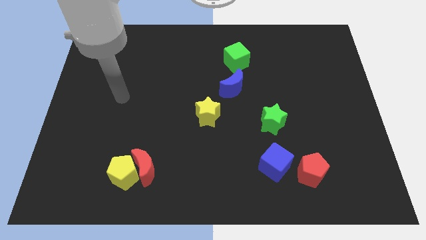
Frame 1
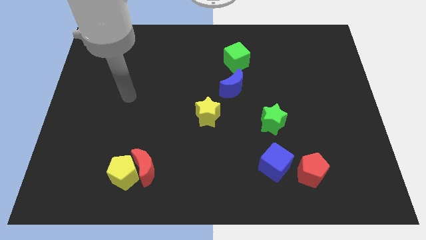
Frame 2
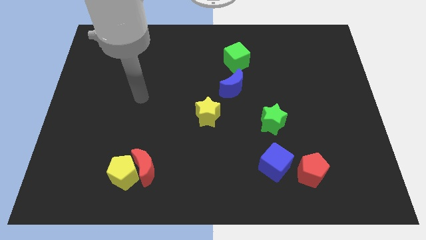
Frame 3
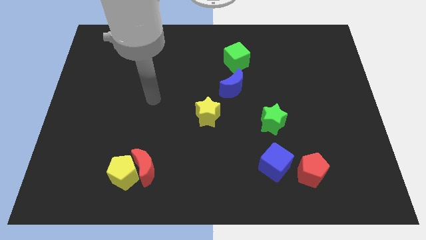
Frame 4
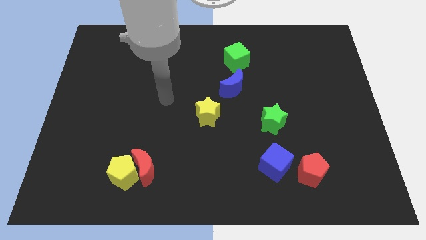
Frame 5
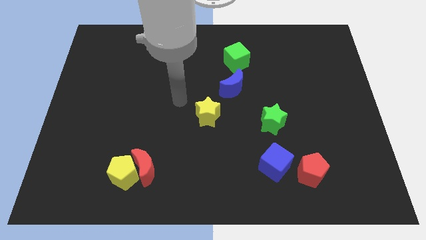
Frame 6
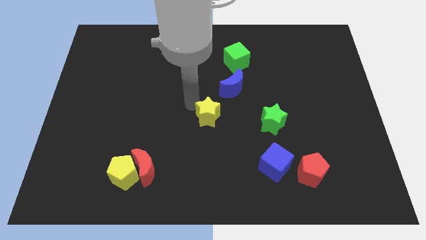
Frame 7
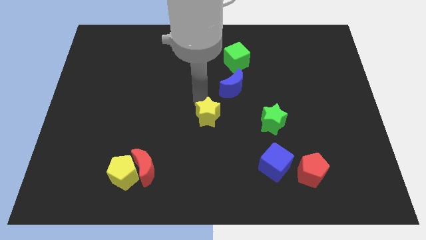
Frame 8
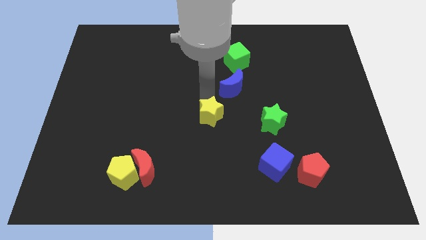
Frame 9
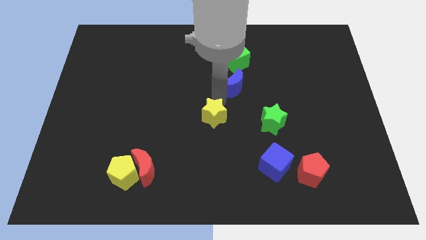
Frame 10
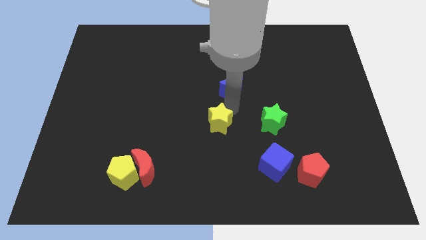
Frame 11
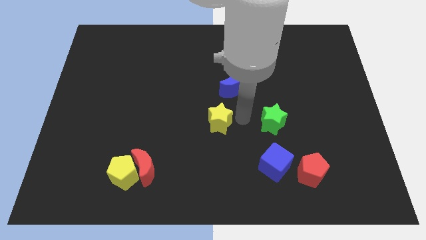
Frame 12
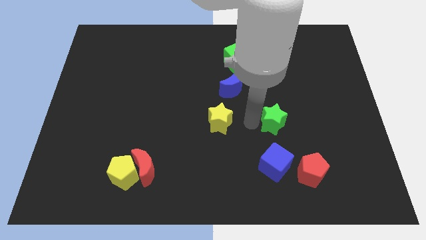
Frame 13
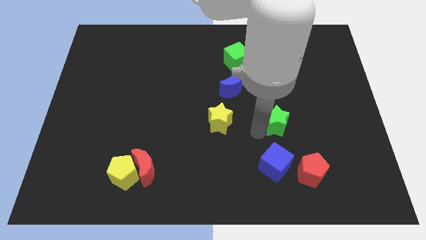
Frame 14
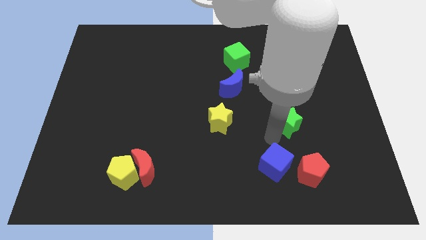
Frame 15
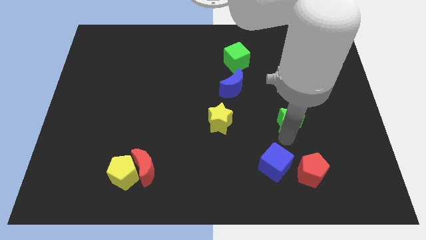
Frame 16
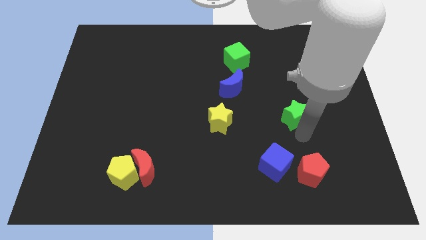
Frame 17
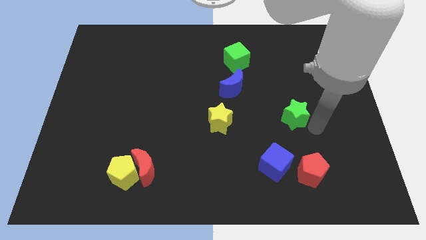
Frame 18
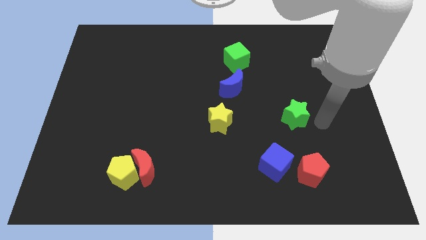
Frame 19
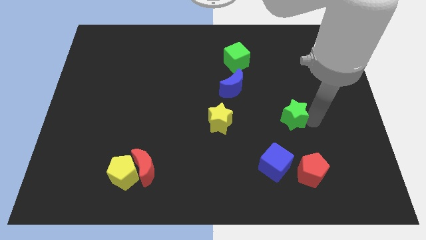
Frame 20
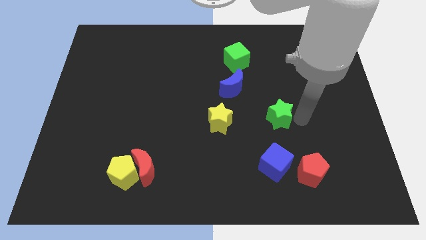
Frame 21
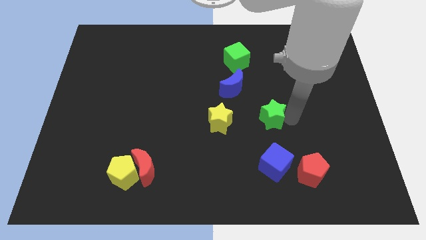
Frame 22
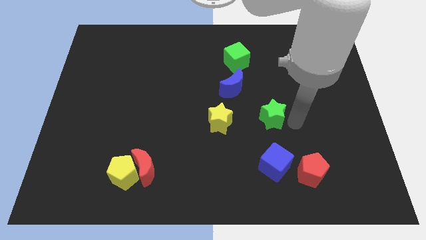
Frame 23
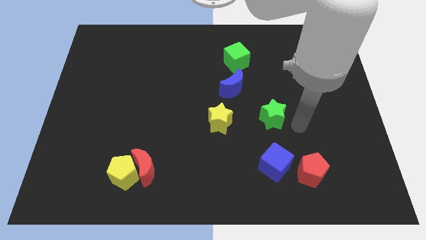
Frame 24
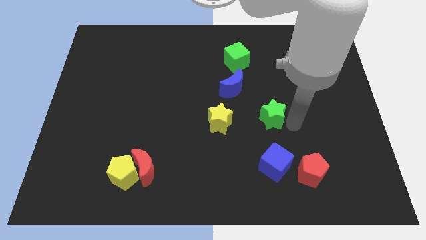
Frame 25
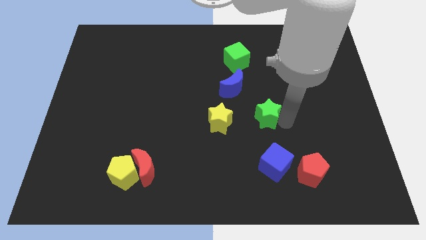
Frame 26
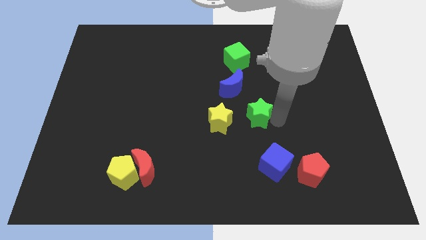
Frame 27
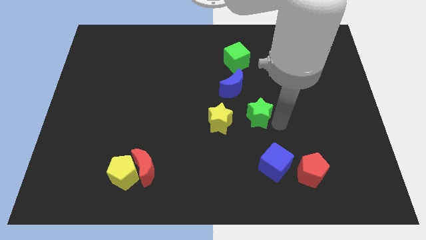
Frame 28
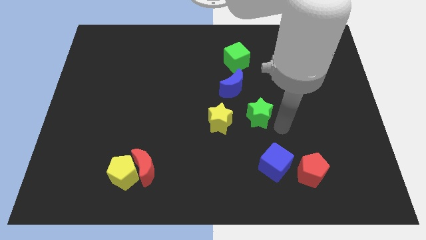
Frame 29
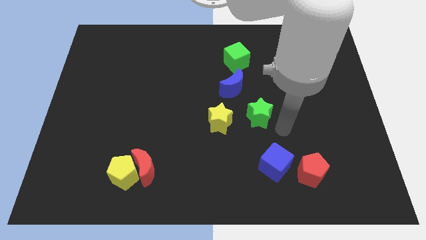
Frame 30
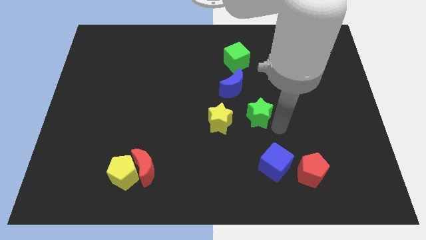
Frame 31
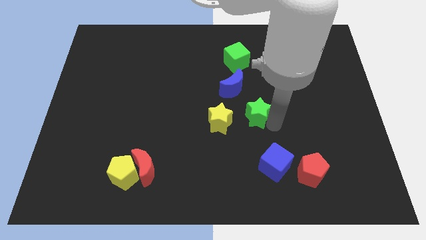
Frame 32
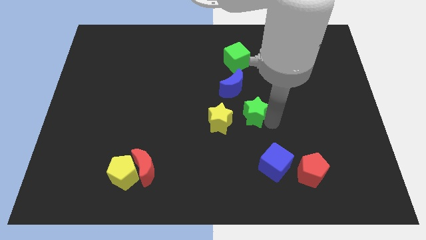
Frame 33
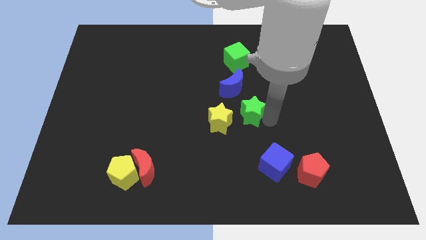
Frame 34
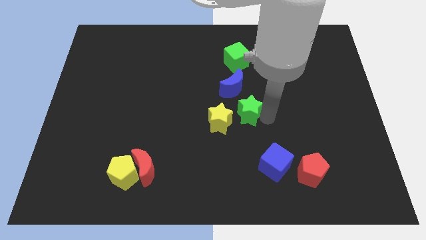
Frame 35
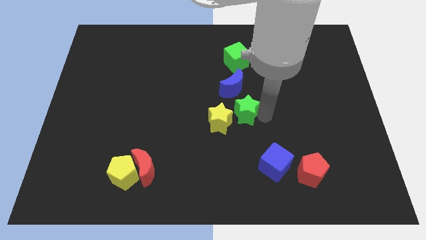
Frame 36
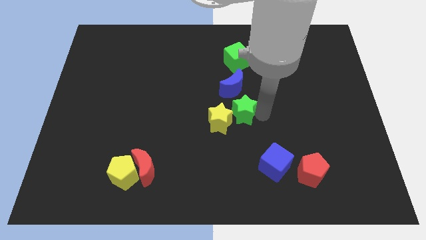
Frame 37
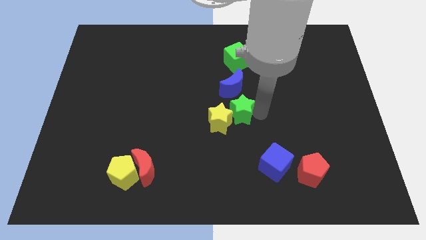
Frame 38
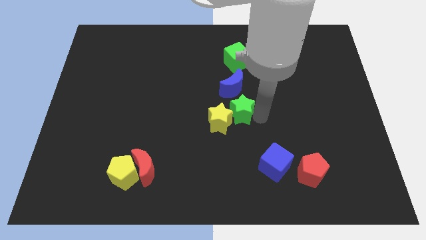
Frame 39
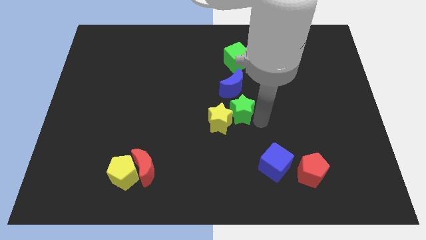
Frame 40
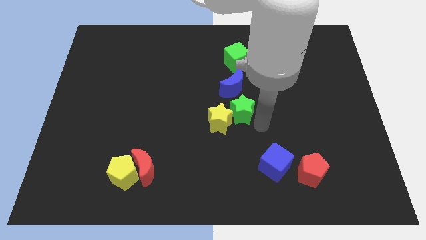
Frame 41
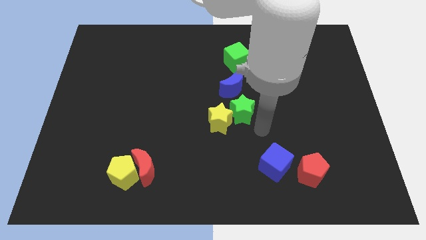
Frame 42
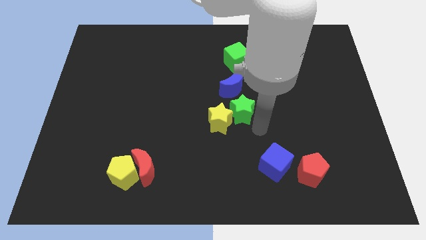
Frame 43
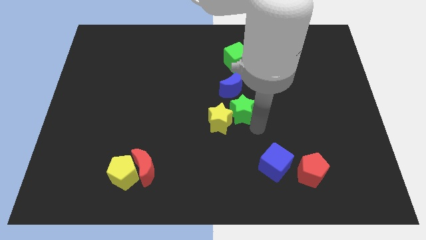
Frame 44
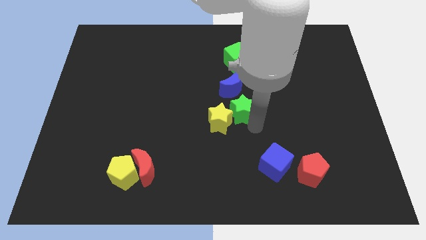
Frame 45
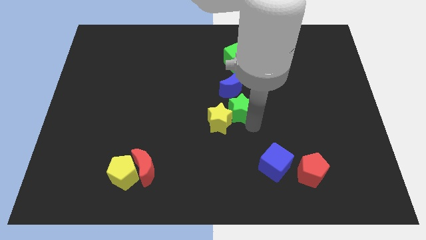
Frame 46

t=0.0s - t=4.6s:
move the green star somewhat upwards and then left

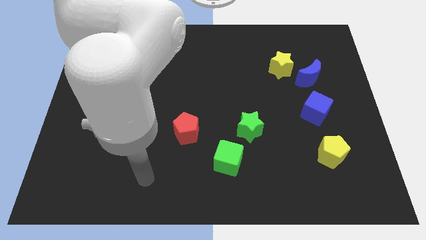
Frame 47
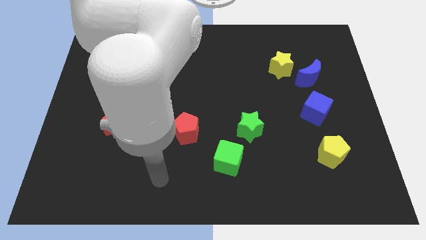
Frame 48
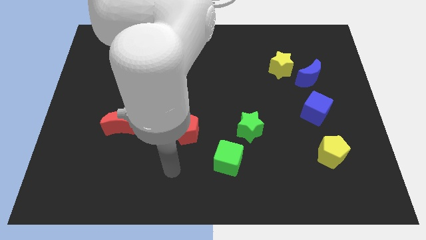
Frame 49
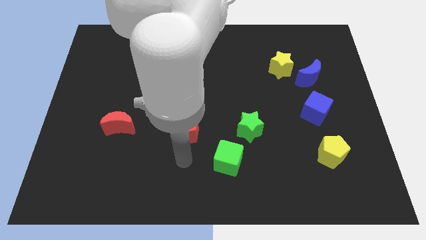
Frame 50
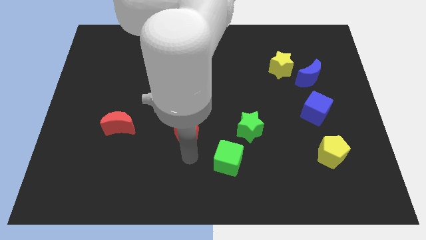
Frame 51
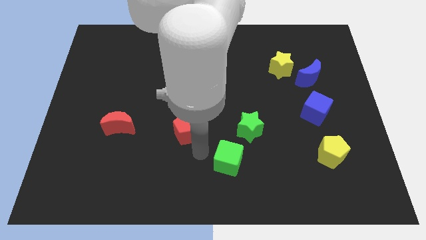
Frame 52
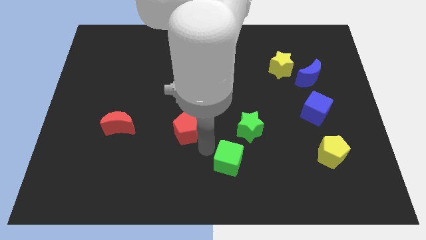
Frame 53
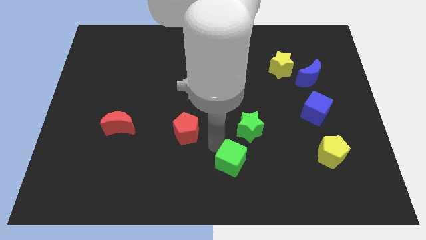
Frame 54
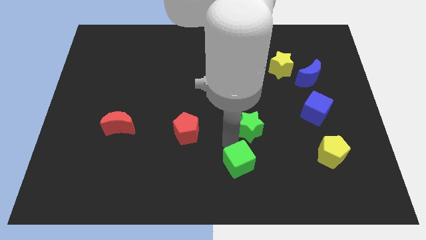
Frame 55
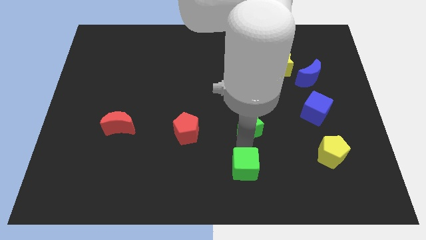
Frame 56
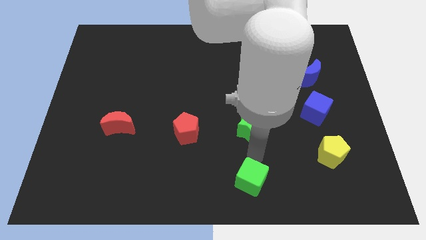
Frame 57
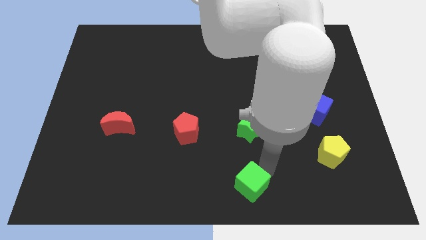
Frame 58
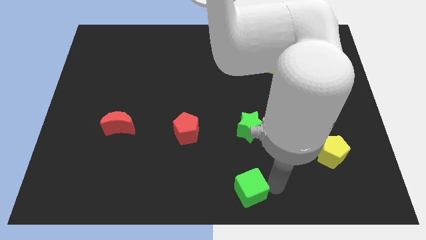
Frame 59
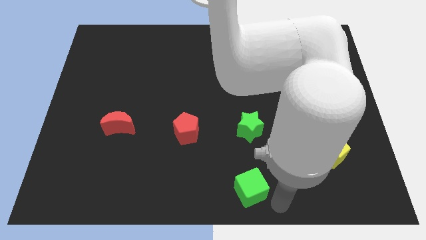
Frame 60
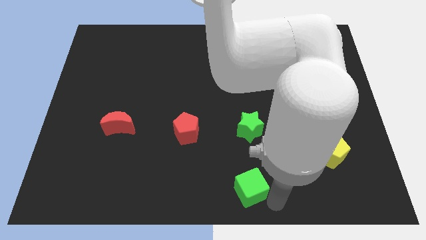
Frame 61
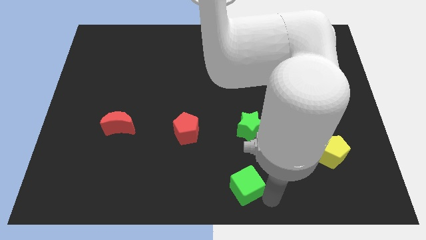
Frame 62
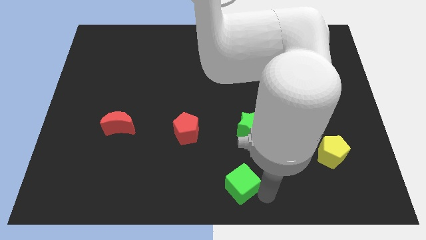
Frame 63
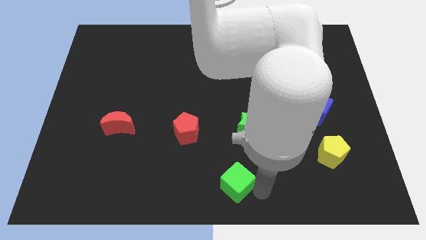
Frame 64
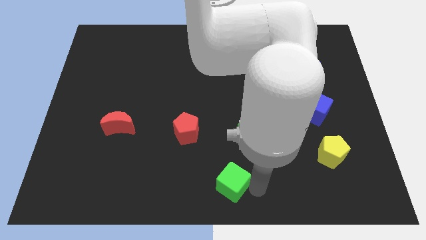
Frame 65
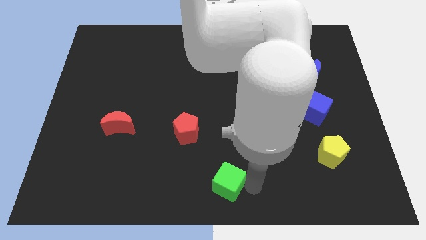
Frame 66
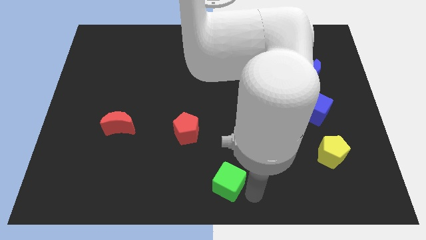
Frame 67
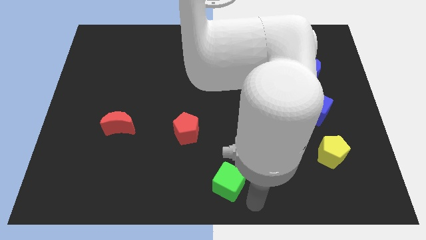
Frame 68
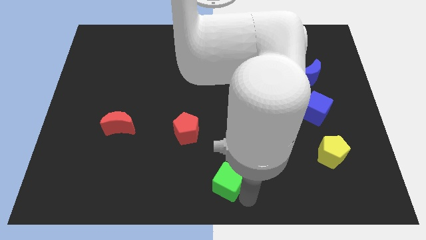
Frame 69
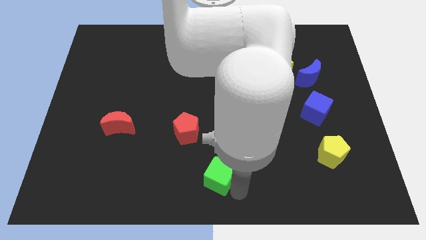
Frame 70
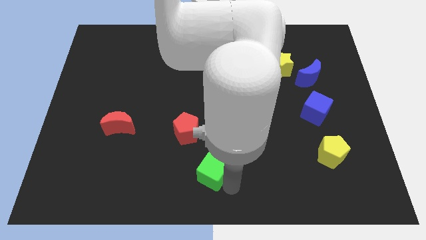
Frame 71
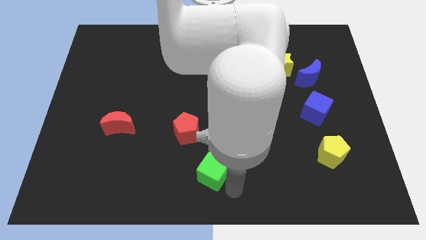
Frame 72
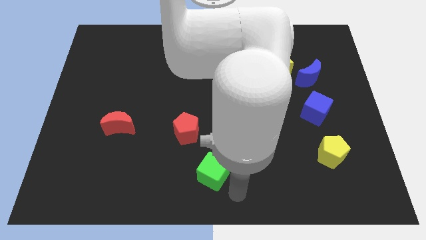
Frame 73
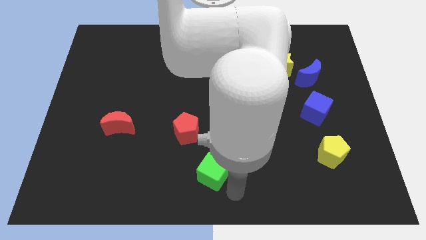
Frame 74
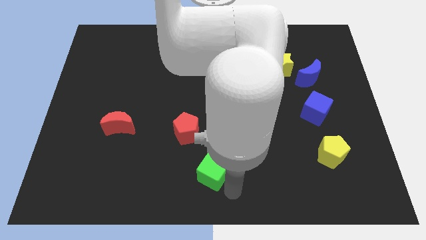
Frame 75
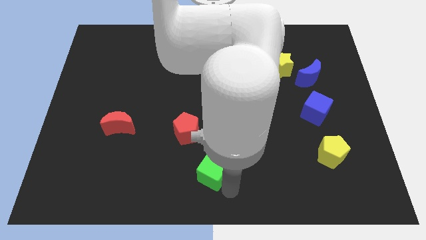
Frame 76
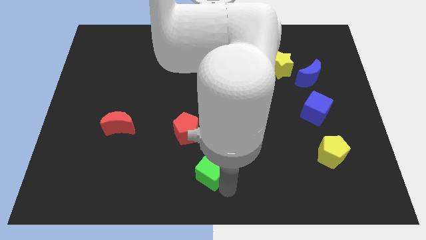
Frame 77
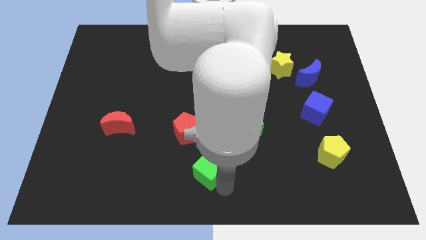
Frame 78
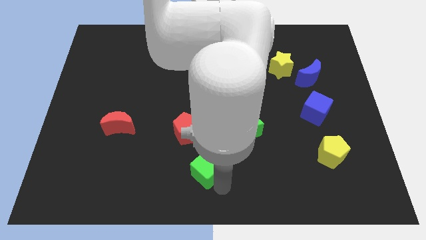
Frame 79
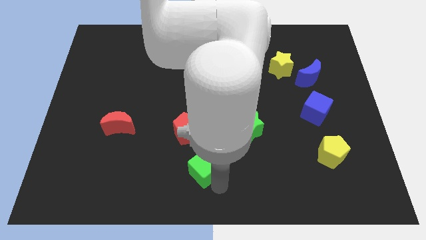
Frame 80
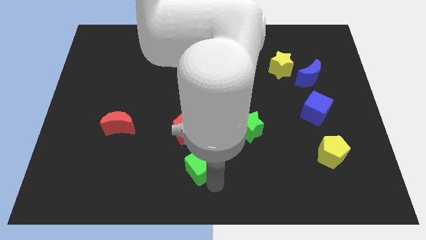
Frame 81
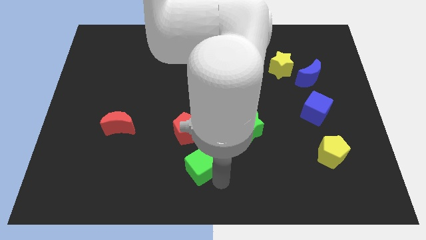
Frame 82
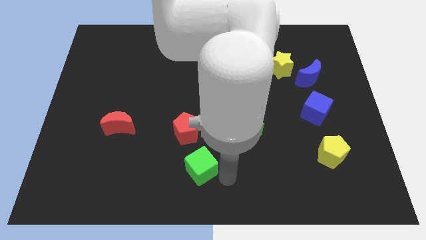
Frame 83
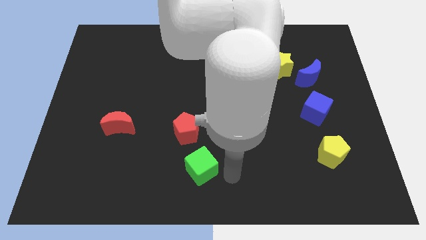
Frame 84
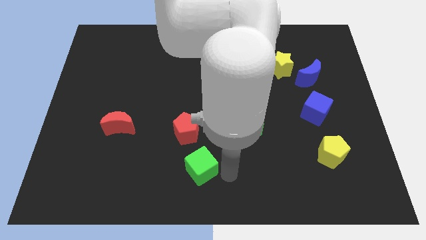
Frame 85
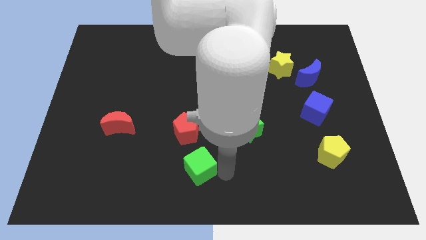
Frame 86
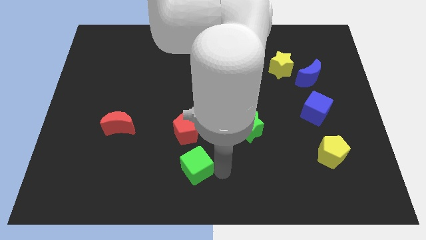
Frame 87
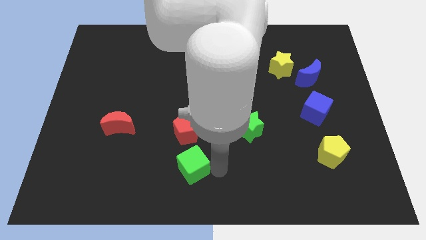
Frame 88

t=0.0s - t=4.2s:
slightly slide the green cube to the left
